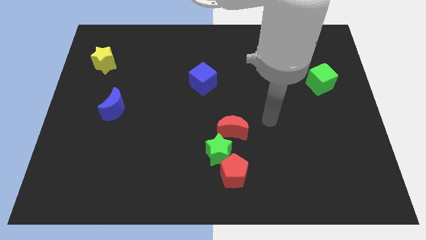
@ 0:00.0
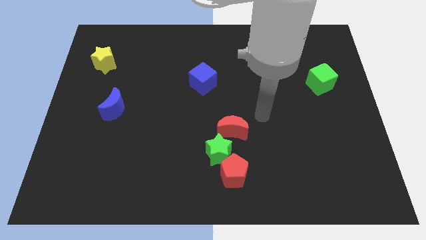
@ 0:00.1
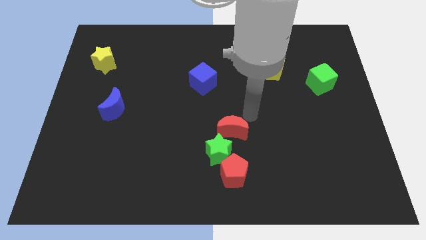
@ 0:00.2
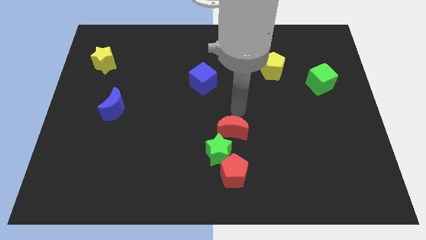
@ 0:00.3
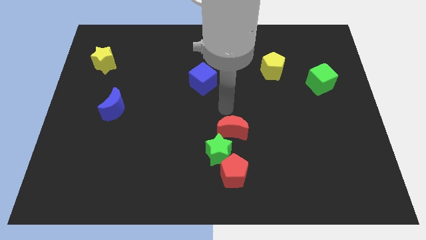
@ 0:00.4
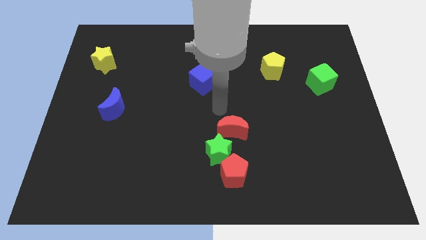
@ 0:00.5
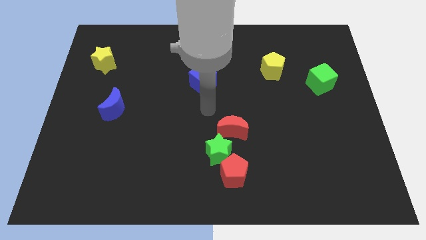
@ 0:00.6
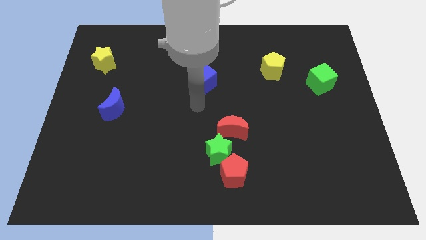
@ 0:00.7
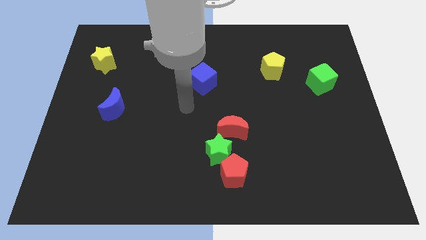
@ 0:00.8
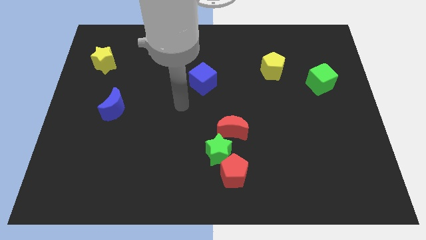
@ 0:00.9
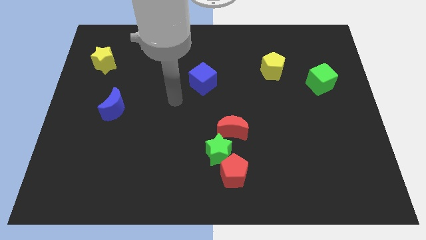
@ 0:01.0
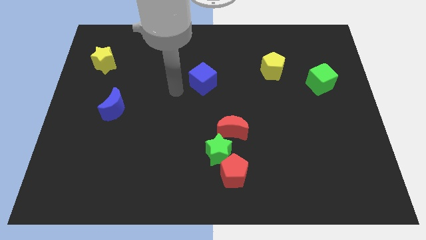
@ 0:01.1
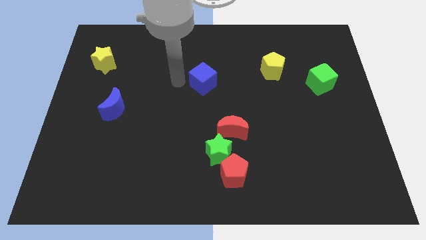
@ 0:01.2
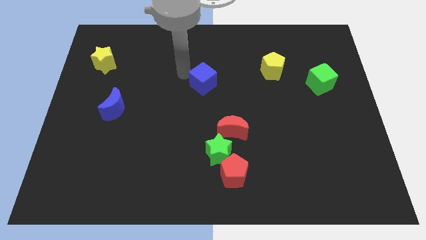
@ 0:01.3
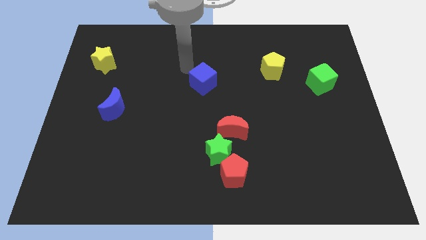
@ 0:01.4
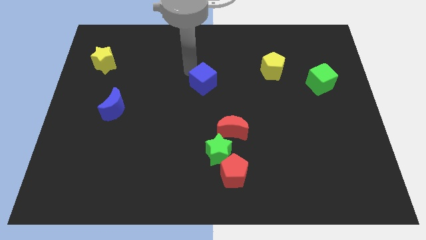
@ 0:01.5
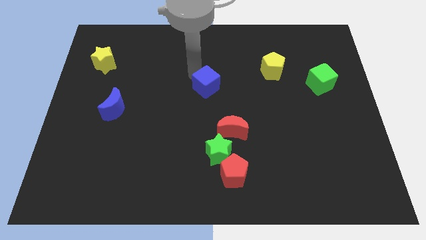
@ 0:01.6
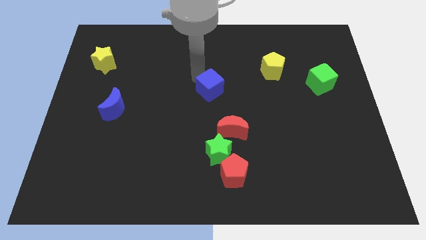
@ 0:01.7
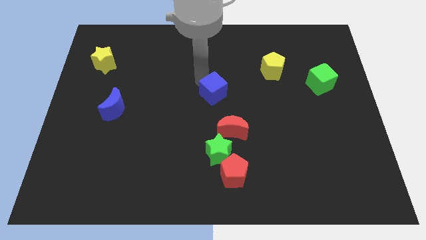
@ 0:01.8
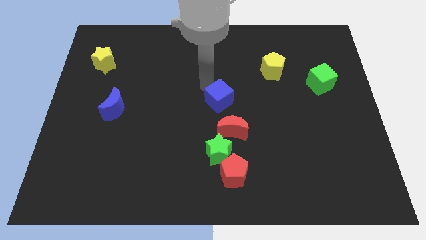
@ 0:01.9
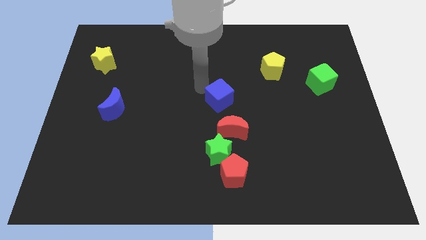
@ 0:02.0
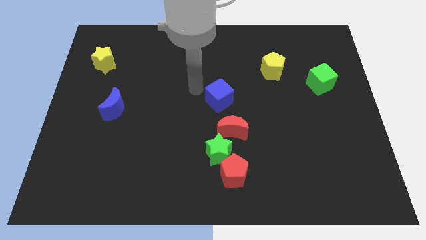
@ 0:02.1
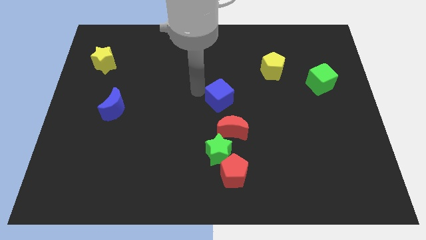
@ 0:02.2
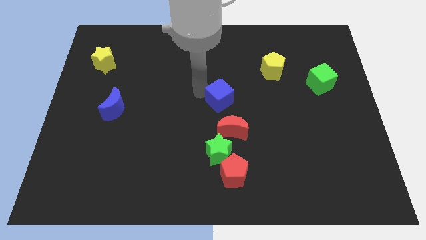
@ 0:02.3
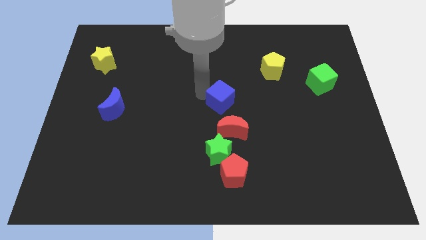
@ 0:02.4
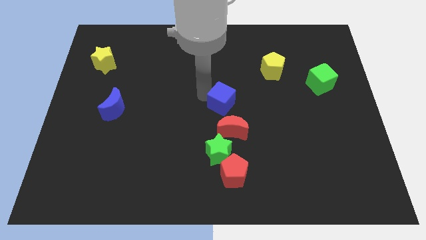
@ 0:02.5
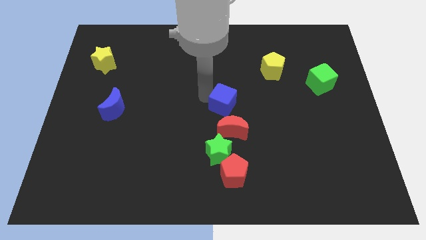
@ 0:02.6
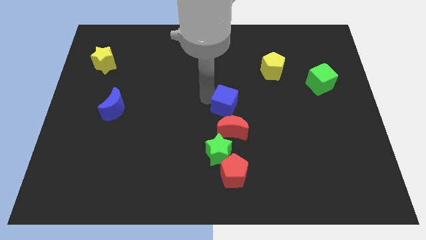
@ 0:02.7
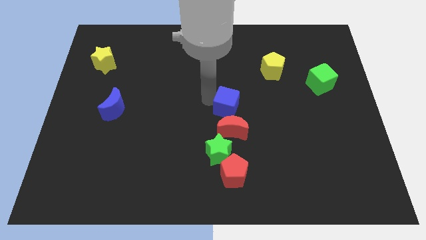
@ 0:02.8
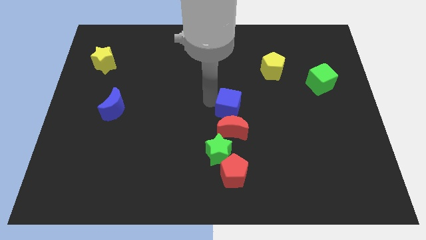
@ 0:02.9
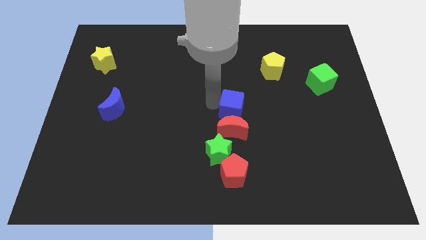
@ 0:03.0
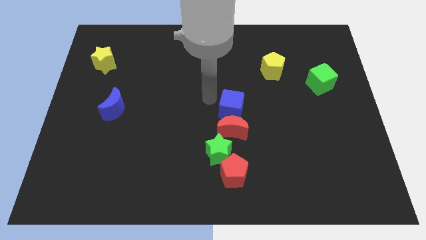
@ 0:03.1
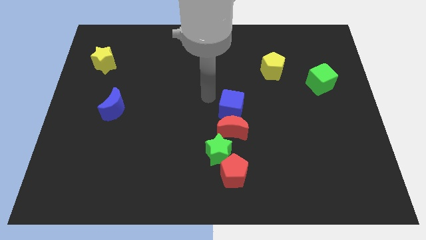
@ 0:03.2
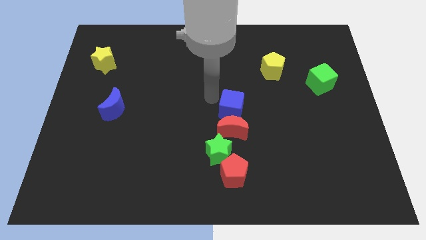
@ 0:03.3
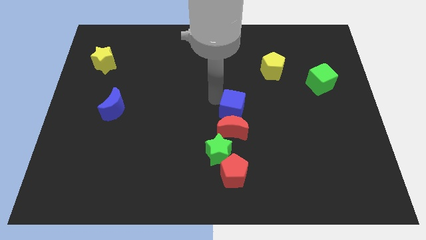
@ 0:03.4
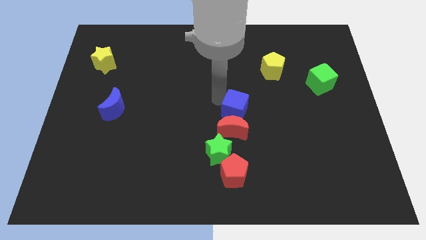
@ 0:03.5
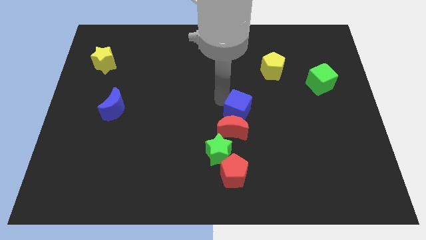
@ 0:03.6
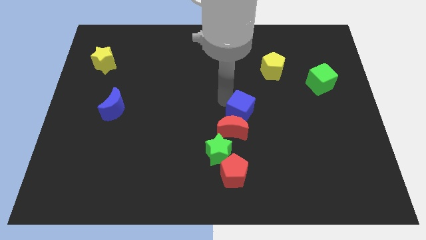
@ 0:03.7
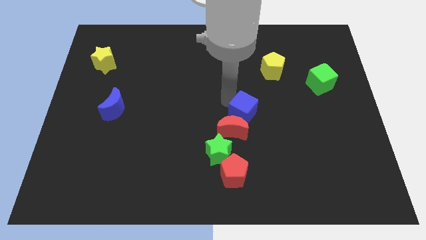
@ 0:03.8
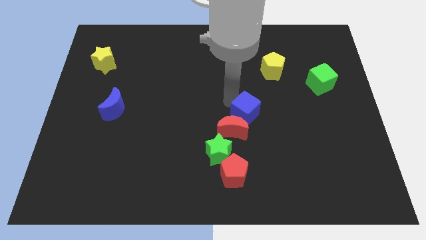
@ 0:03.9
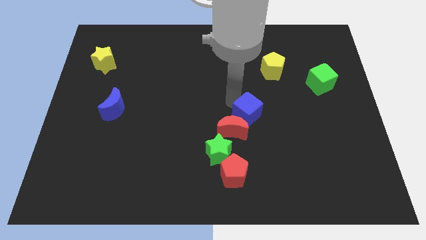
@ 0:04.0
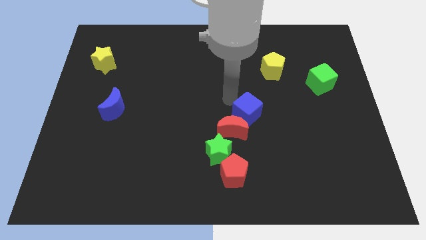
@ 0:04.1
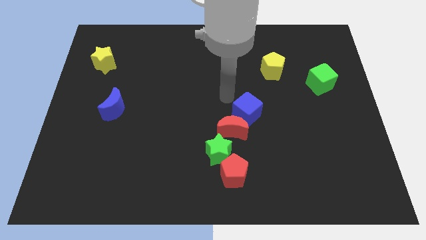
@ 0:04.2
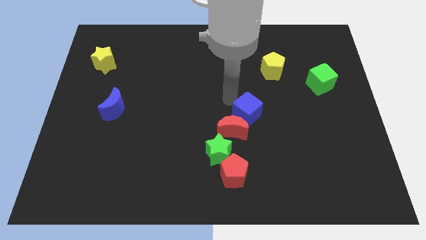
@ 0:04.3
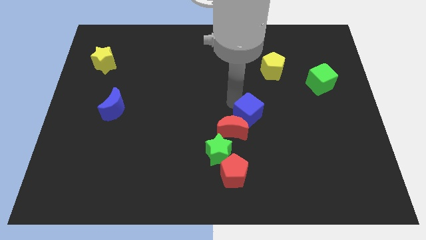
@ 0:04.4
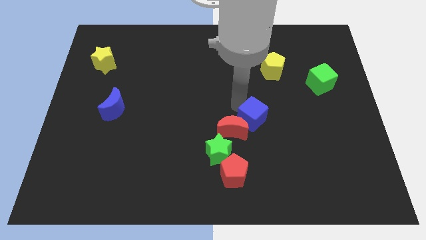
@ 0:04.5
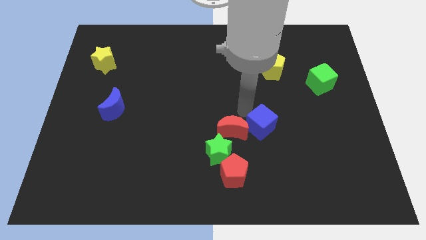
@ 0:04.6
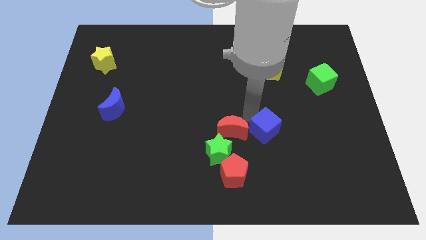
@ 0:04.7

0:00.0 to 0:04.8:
move the blue cube downwards and right diagonally

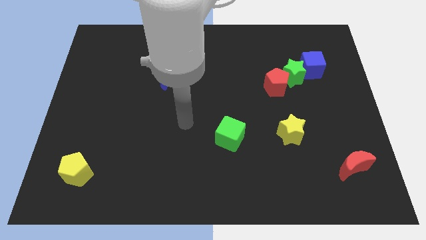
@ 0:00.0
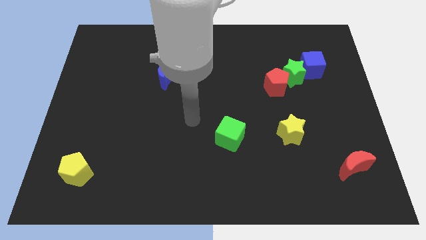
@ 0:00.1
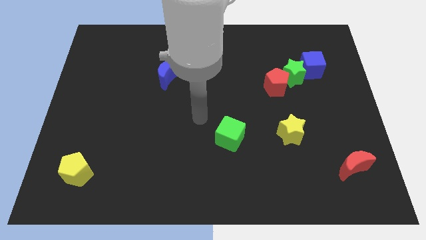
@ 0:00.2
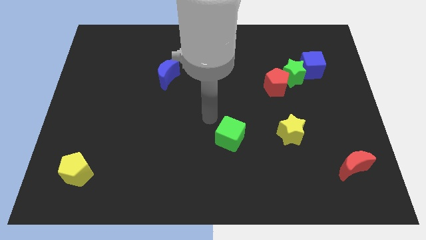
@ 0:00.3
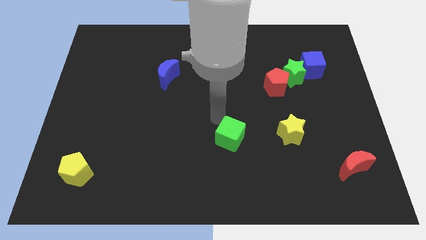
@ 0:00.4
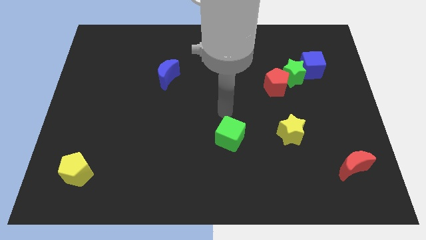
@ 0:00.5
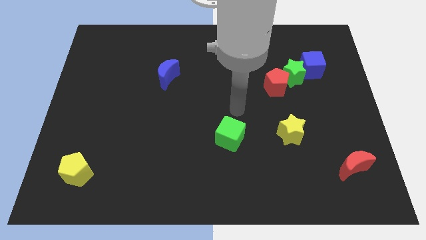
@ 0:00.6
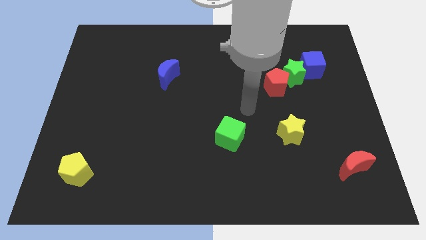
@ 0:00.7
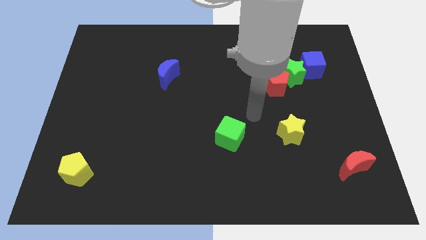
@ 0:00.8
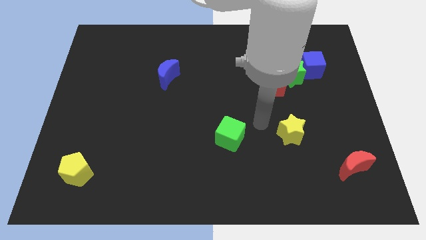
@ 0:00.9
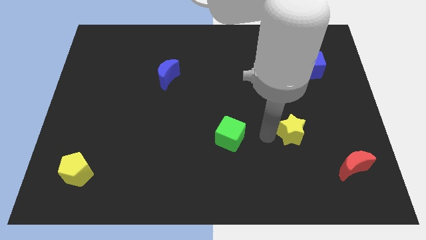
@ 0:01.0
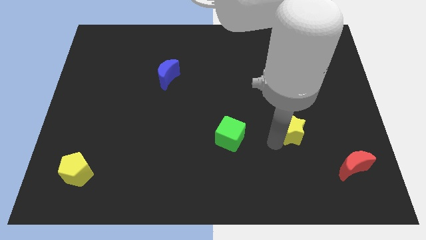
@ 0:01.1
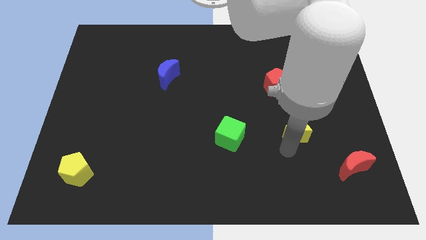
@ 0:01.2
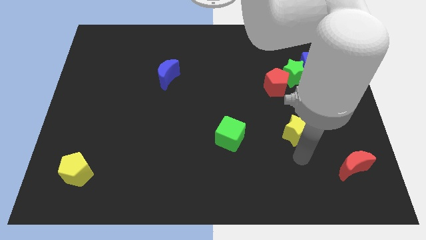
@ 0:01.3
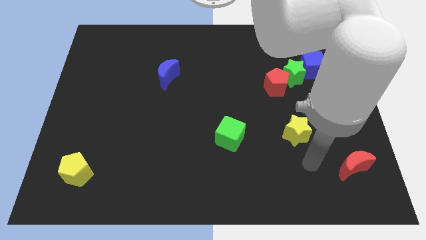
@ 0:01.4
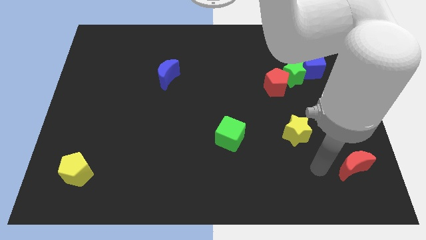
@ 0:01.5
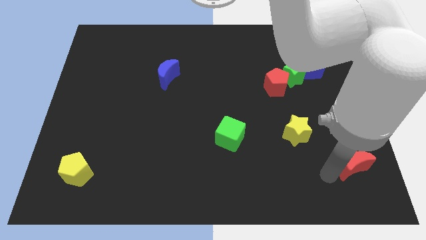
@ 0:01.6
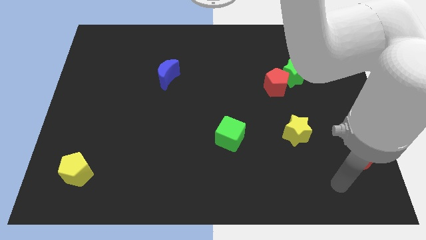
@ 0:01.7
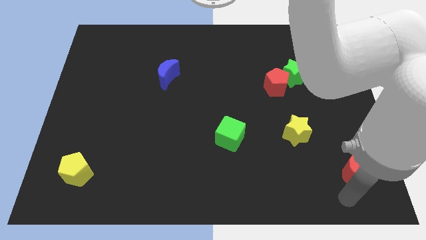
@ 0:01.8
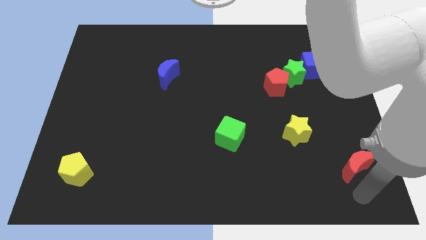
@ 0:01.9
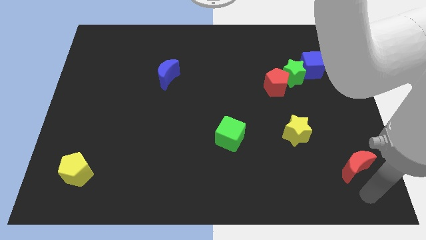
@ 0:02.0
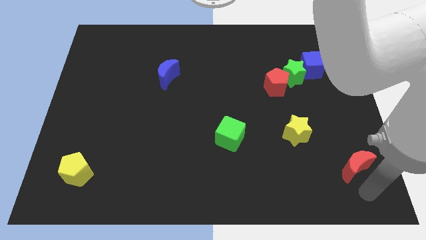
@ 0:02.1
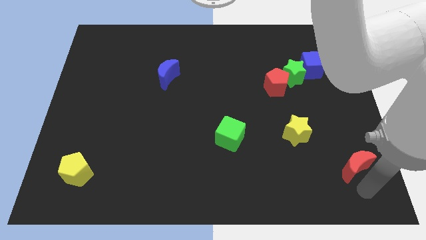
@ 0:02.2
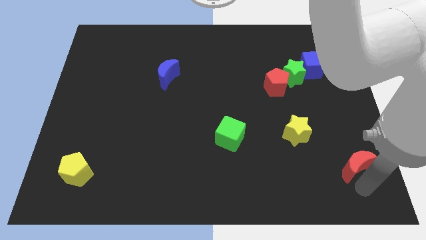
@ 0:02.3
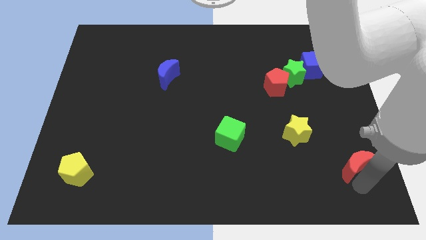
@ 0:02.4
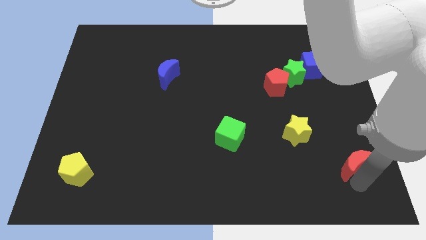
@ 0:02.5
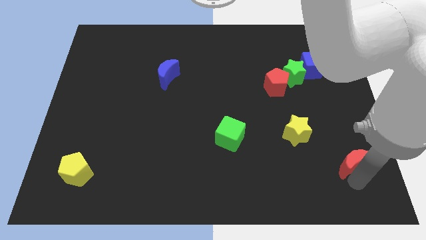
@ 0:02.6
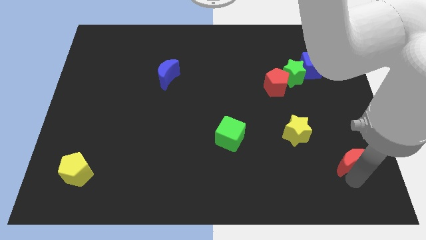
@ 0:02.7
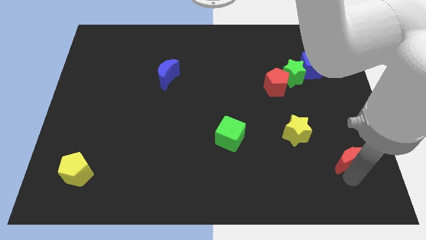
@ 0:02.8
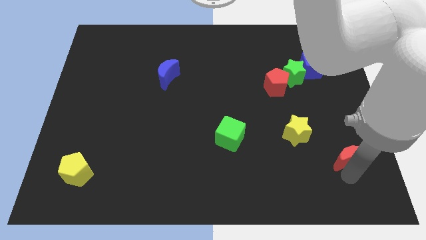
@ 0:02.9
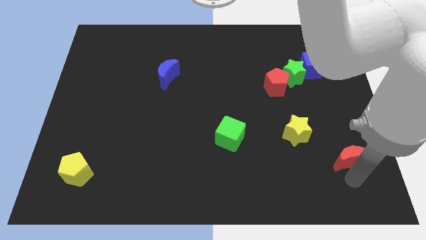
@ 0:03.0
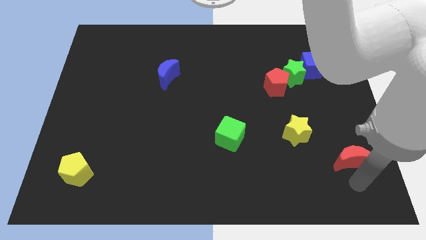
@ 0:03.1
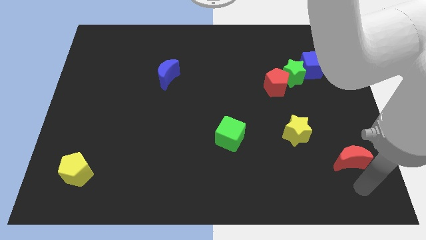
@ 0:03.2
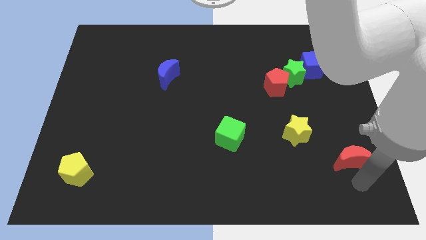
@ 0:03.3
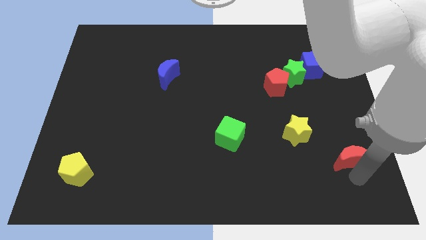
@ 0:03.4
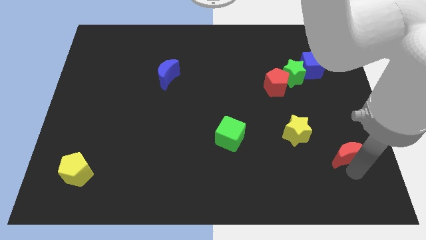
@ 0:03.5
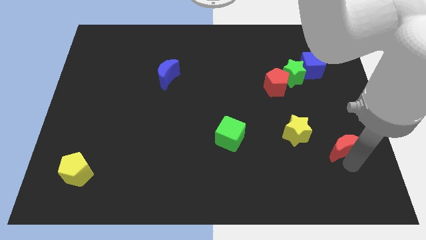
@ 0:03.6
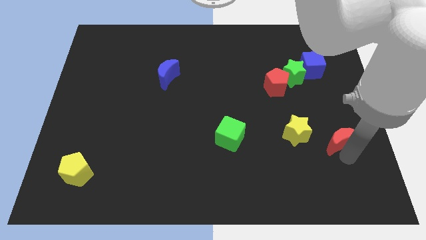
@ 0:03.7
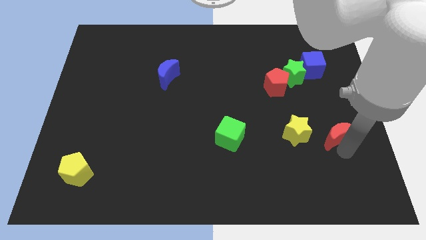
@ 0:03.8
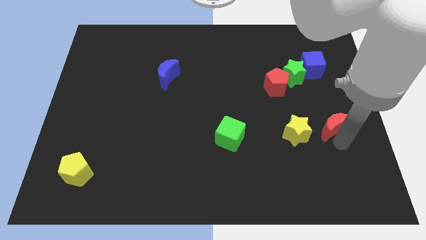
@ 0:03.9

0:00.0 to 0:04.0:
slide the red moon up and left diagonally a little
